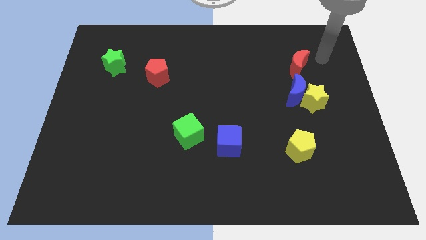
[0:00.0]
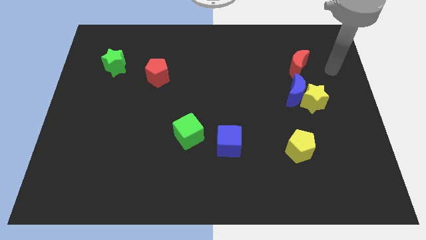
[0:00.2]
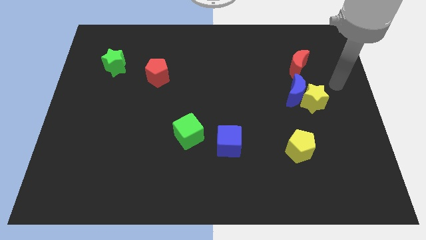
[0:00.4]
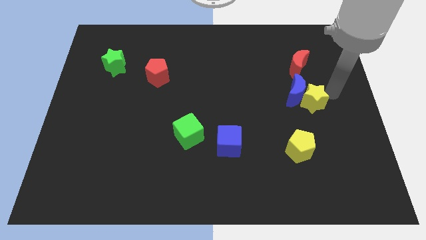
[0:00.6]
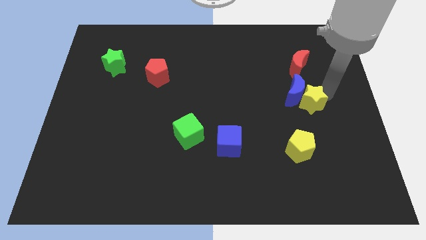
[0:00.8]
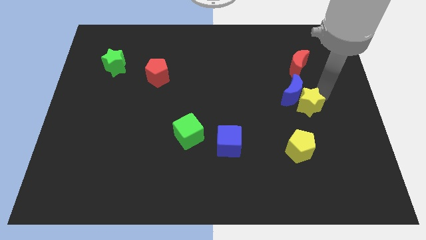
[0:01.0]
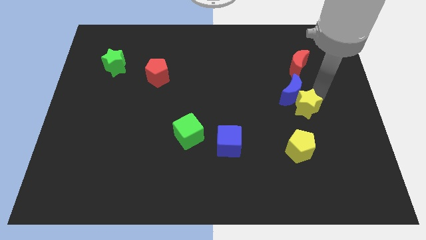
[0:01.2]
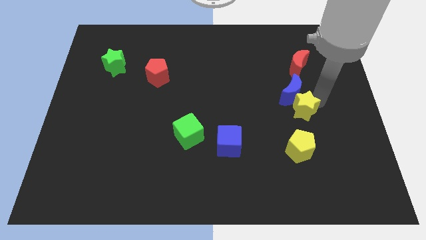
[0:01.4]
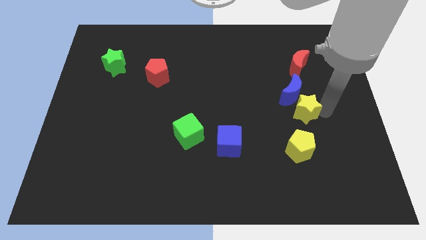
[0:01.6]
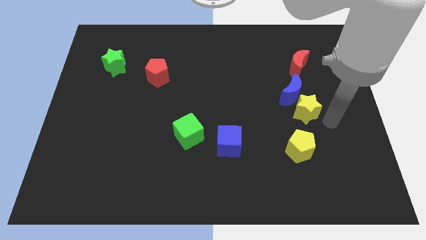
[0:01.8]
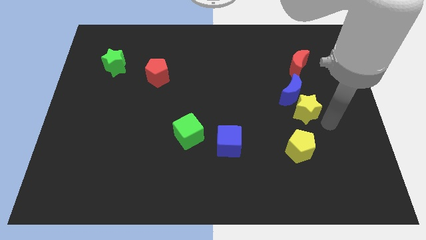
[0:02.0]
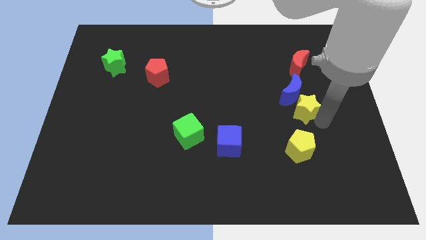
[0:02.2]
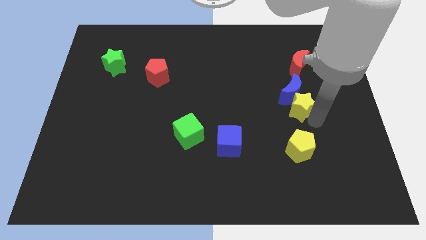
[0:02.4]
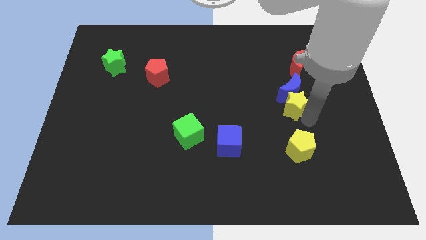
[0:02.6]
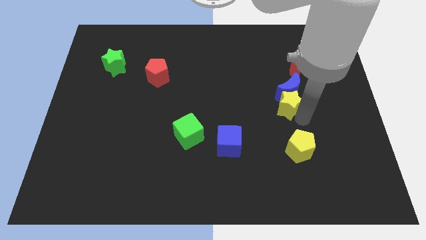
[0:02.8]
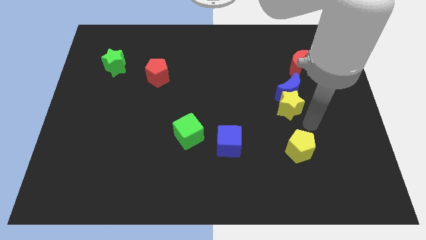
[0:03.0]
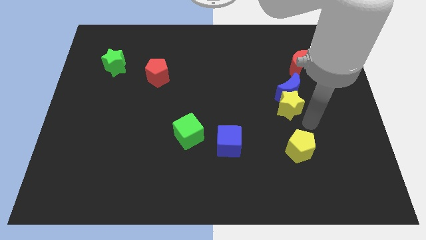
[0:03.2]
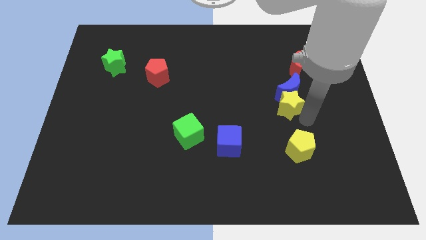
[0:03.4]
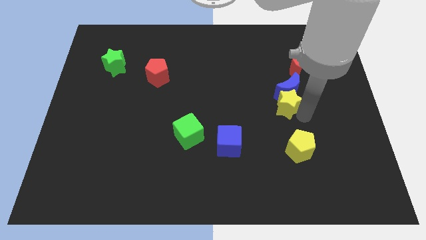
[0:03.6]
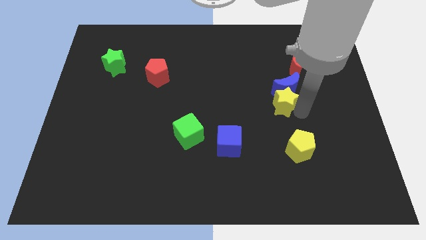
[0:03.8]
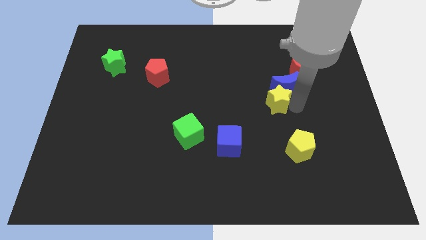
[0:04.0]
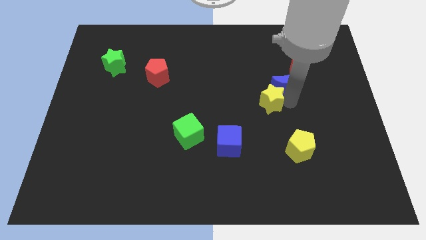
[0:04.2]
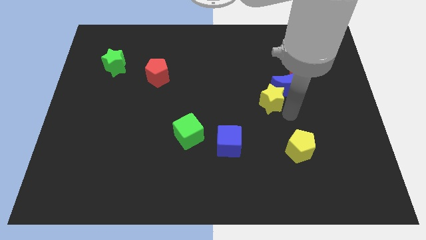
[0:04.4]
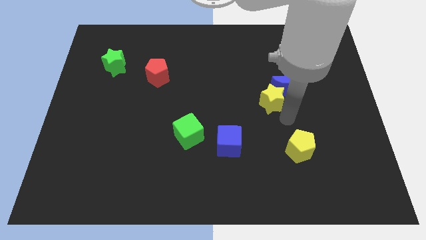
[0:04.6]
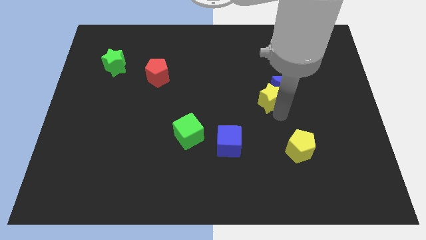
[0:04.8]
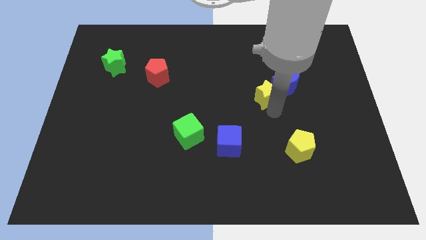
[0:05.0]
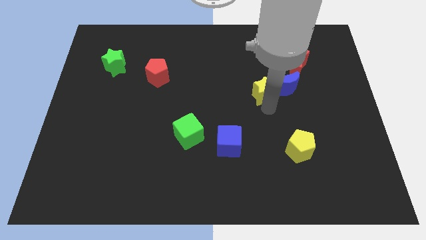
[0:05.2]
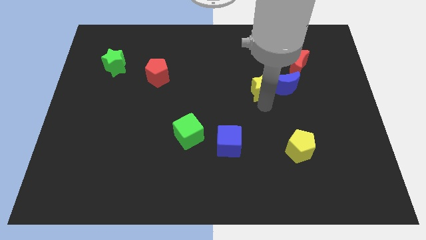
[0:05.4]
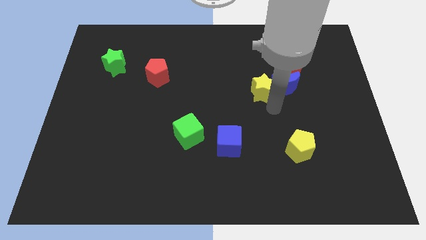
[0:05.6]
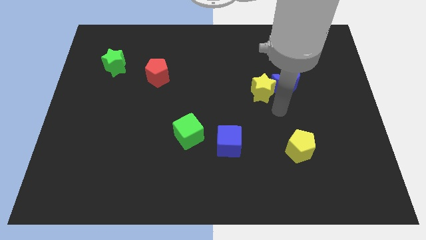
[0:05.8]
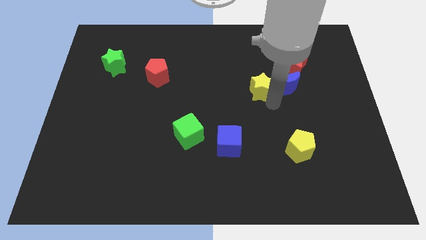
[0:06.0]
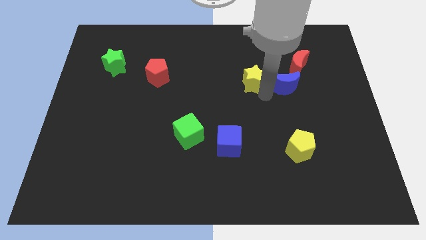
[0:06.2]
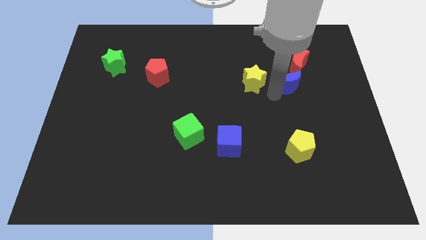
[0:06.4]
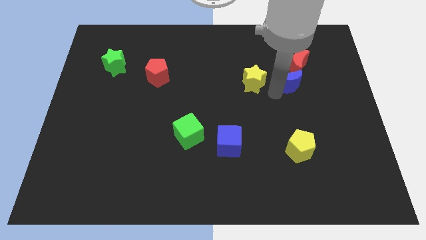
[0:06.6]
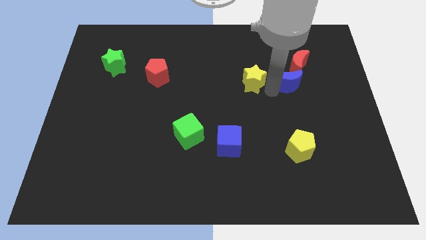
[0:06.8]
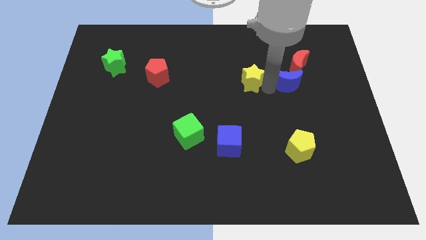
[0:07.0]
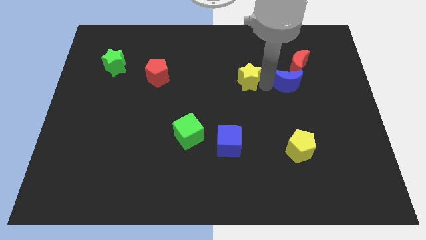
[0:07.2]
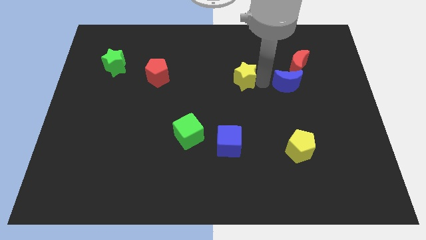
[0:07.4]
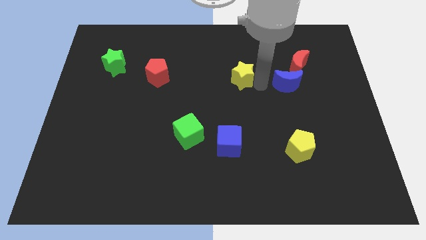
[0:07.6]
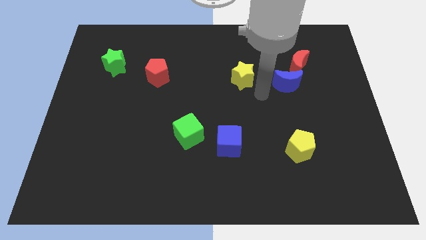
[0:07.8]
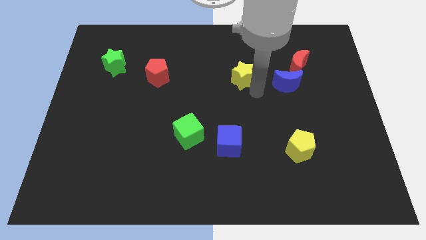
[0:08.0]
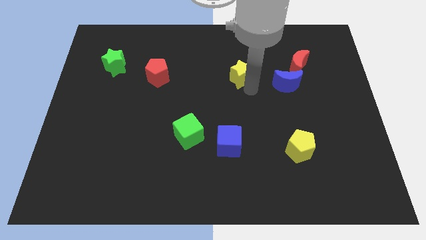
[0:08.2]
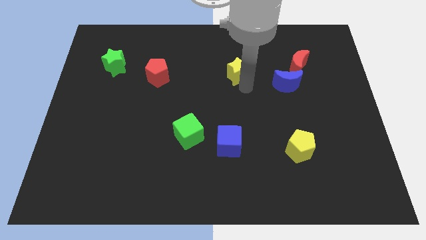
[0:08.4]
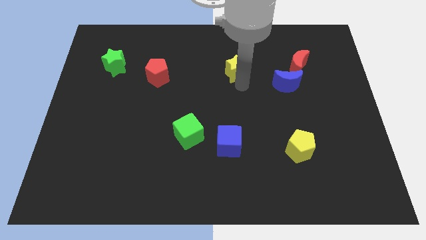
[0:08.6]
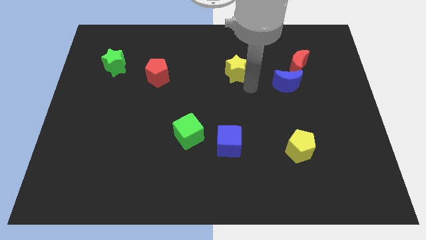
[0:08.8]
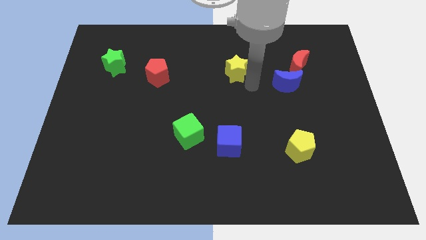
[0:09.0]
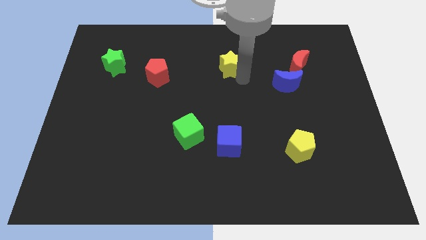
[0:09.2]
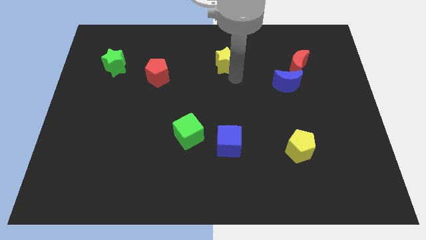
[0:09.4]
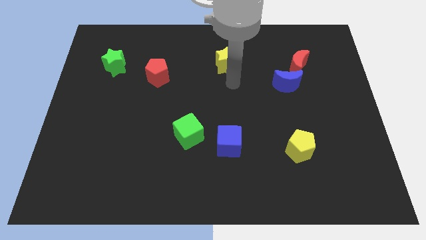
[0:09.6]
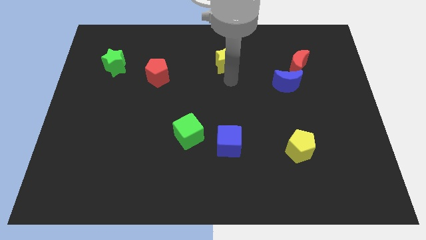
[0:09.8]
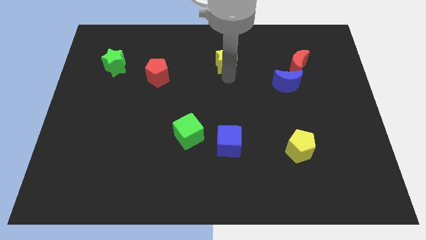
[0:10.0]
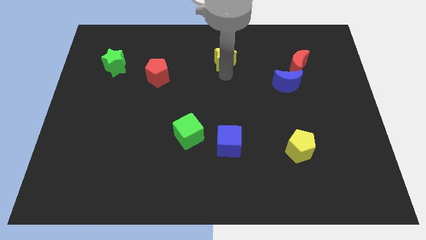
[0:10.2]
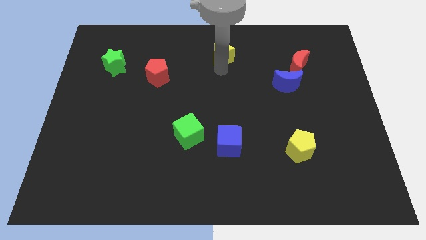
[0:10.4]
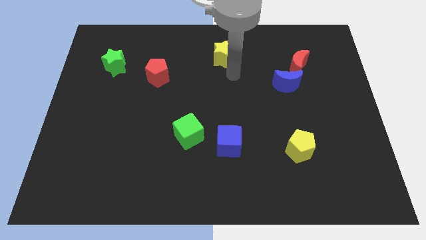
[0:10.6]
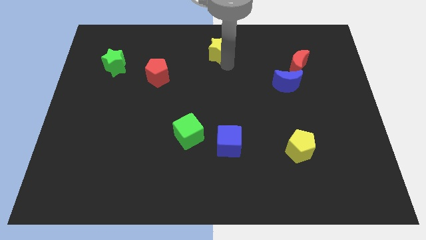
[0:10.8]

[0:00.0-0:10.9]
put the yellow star to the top side
